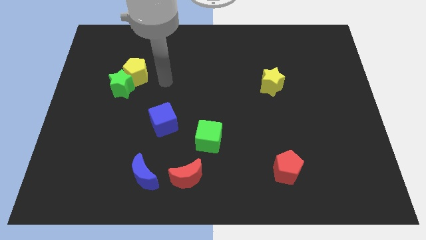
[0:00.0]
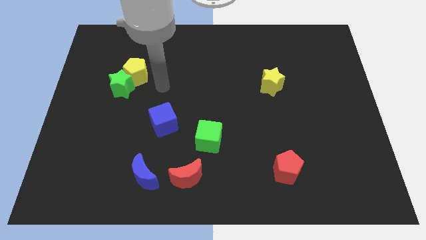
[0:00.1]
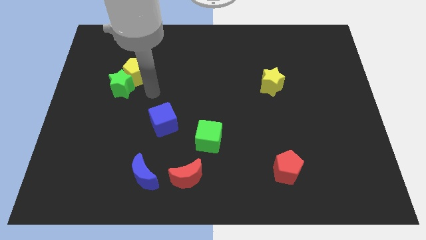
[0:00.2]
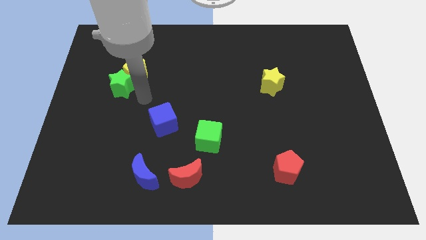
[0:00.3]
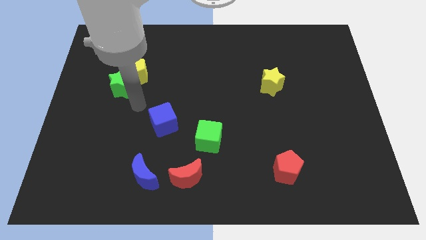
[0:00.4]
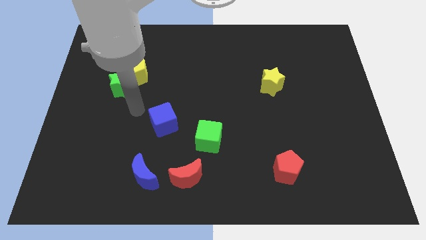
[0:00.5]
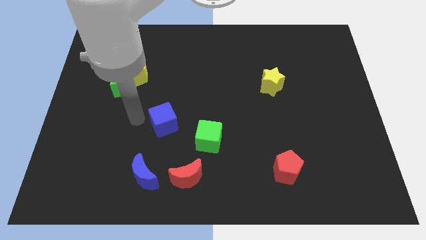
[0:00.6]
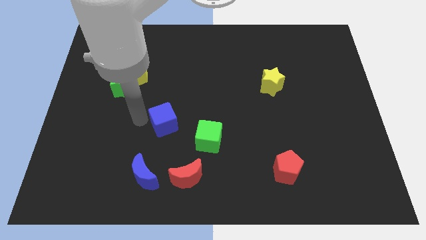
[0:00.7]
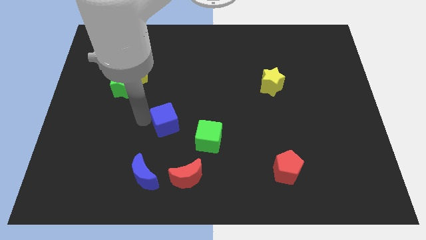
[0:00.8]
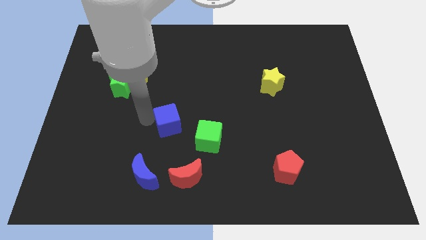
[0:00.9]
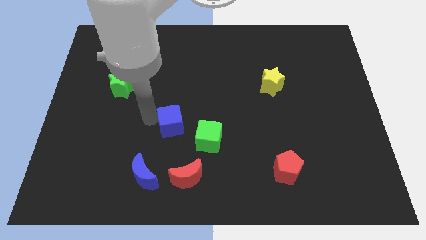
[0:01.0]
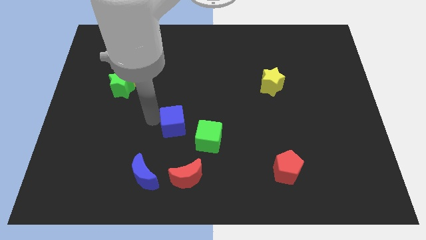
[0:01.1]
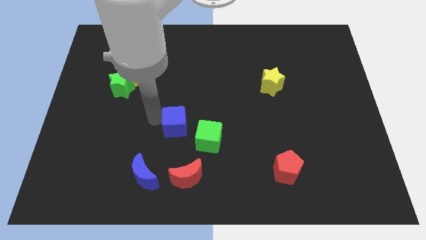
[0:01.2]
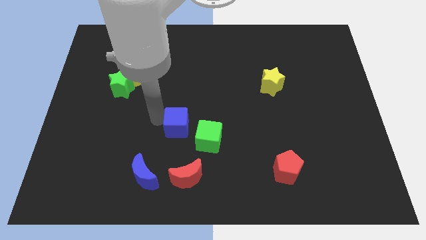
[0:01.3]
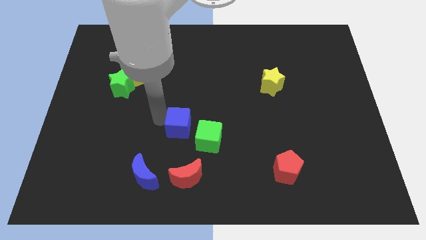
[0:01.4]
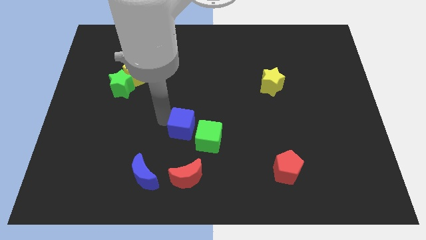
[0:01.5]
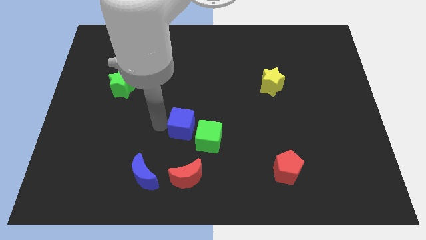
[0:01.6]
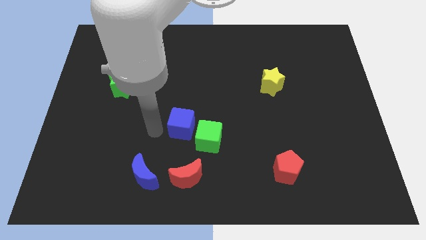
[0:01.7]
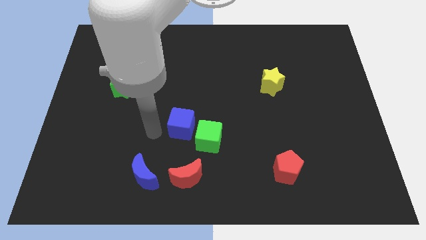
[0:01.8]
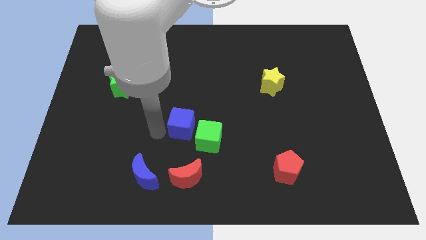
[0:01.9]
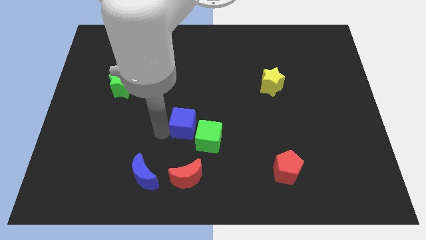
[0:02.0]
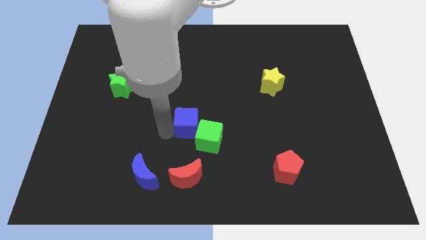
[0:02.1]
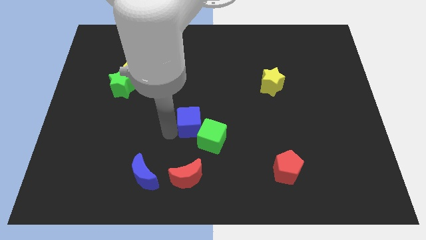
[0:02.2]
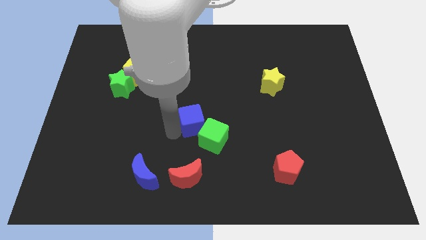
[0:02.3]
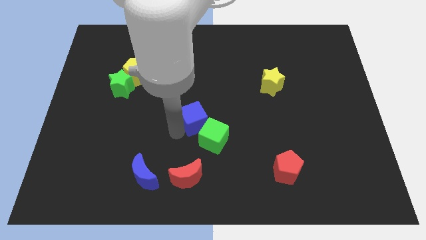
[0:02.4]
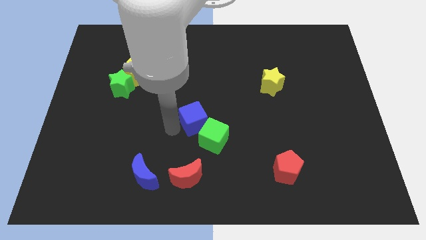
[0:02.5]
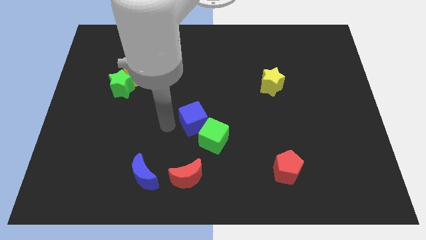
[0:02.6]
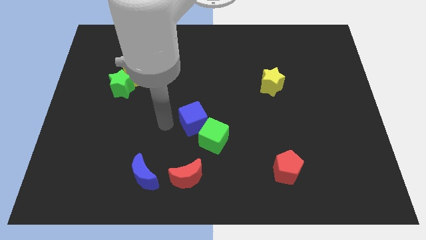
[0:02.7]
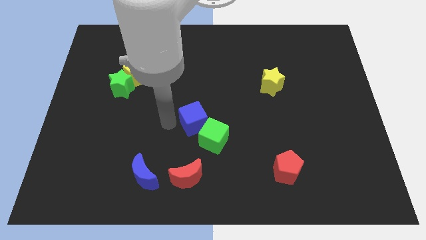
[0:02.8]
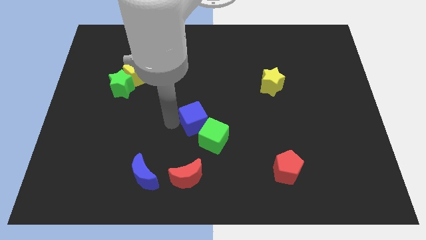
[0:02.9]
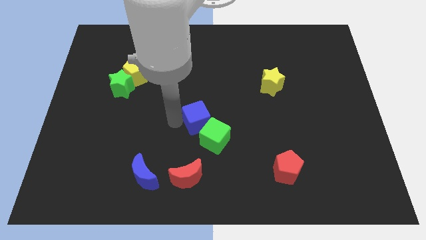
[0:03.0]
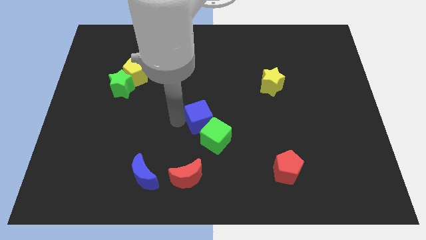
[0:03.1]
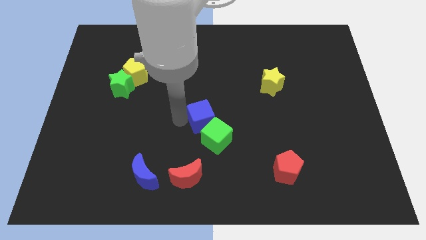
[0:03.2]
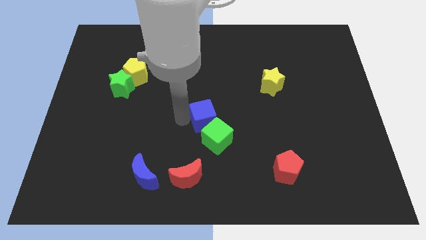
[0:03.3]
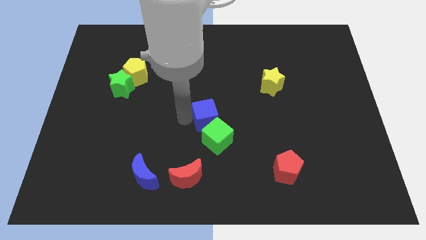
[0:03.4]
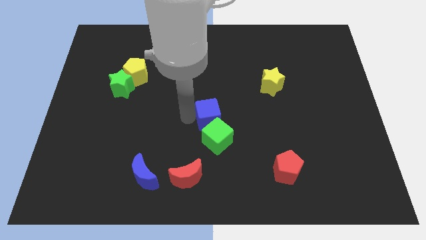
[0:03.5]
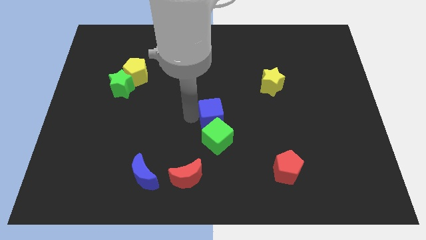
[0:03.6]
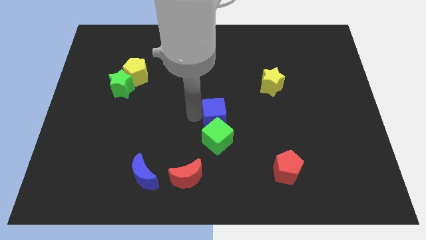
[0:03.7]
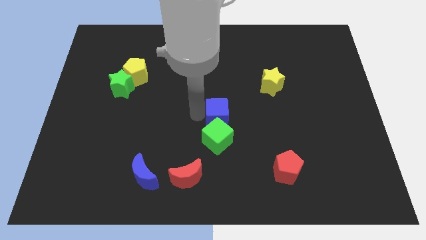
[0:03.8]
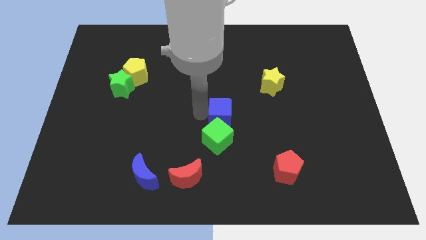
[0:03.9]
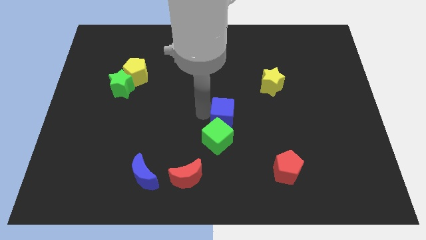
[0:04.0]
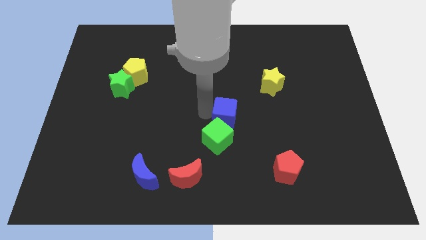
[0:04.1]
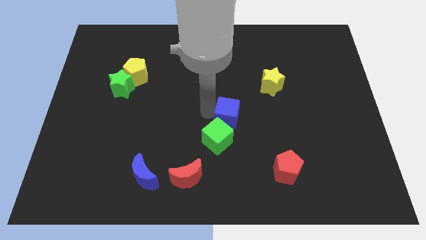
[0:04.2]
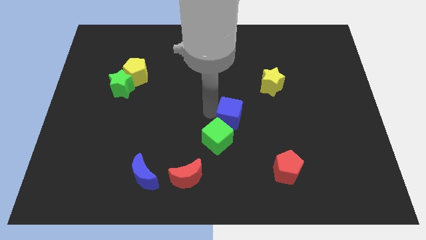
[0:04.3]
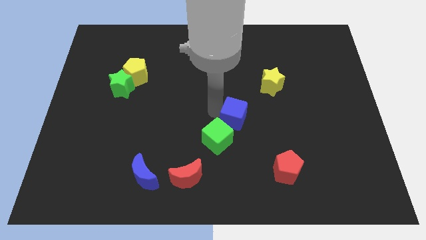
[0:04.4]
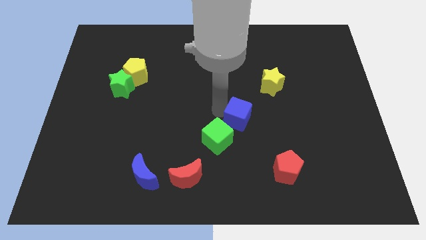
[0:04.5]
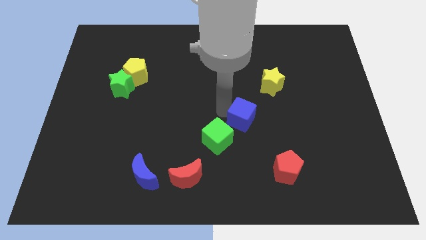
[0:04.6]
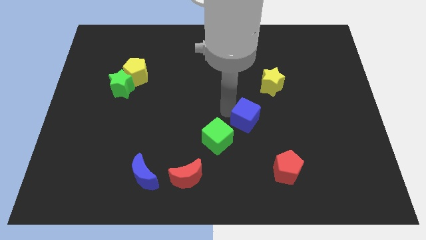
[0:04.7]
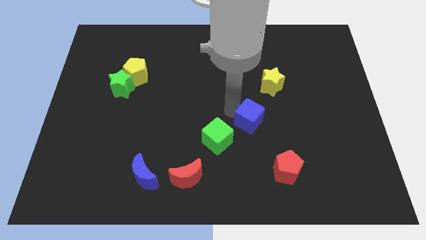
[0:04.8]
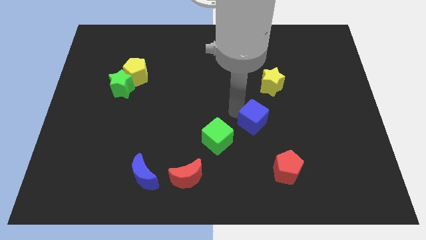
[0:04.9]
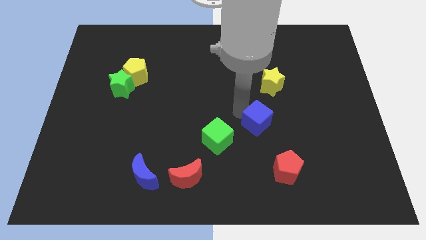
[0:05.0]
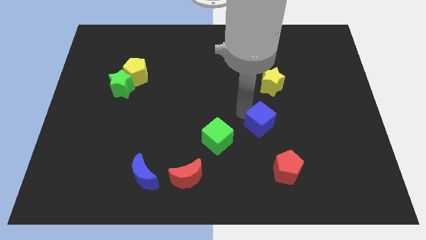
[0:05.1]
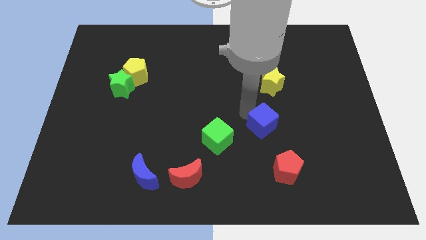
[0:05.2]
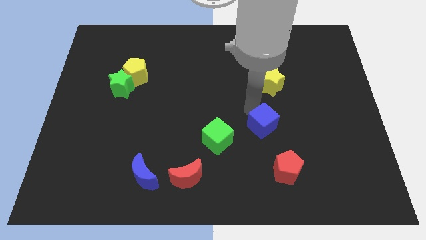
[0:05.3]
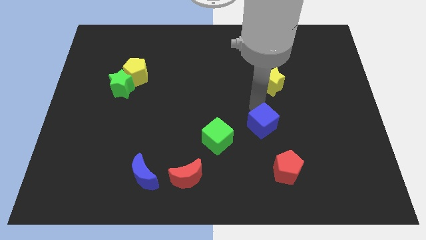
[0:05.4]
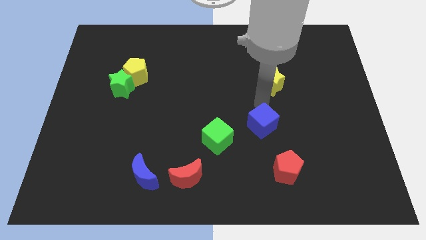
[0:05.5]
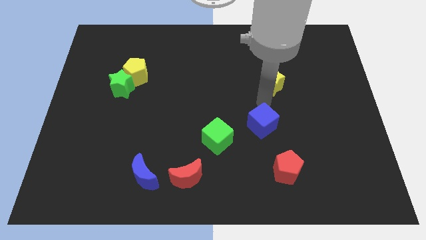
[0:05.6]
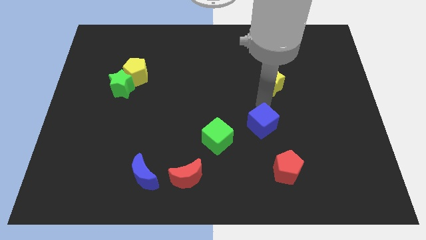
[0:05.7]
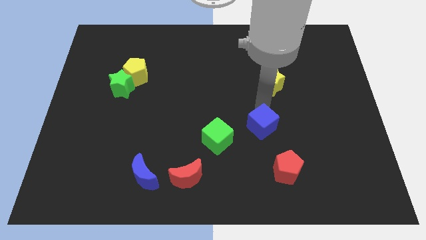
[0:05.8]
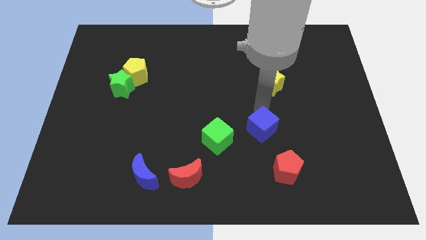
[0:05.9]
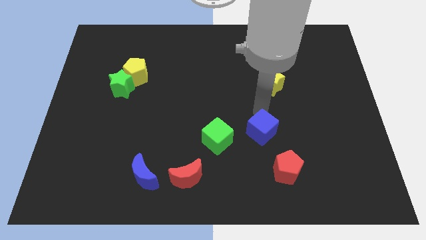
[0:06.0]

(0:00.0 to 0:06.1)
put the blue cube to the top left of the red pentagon

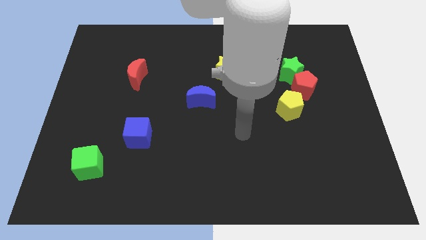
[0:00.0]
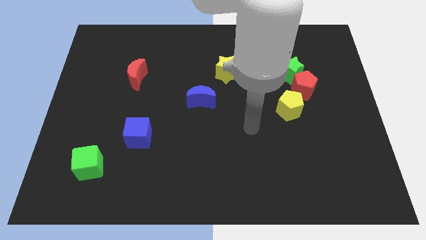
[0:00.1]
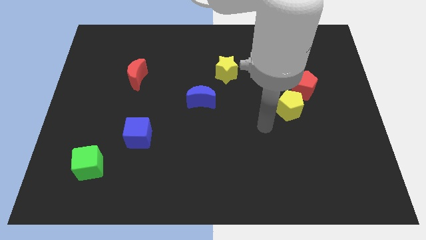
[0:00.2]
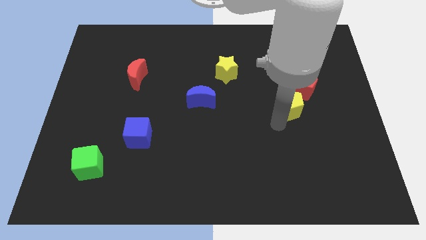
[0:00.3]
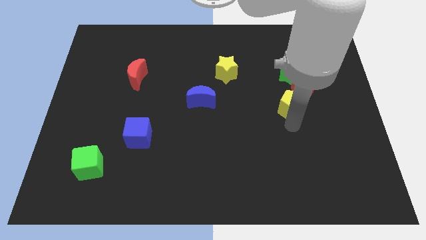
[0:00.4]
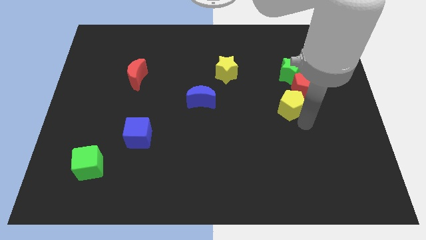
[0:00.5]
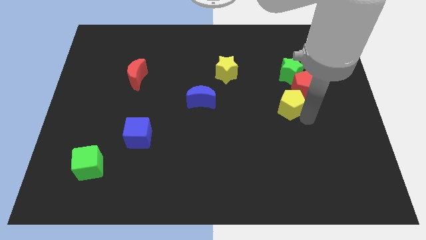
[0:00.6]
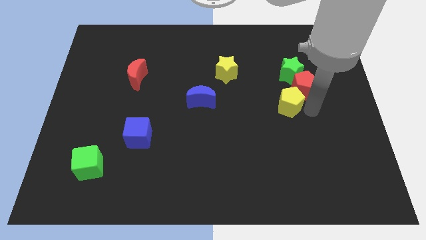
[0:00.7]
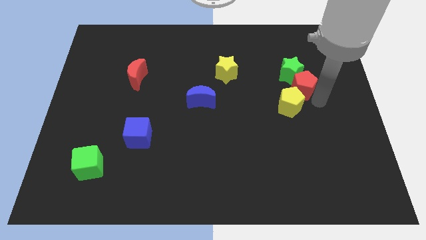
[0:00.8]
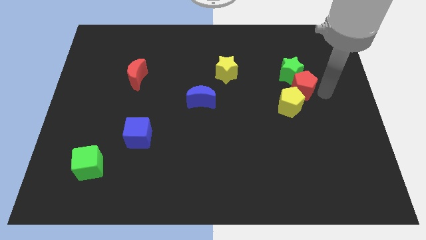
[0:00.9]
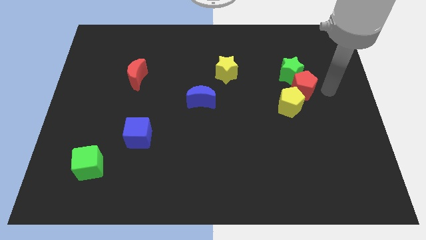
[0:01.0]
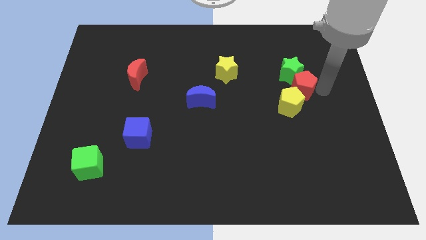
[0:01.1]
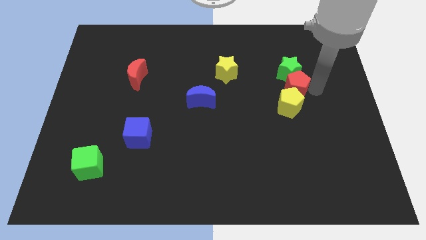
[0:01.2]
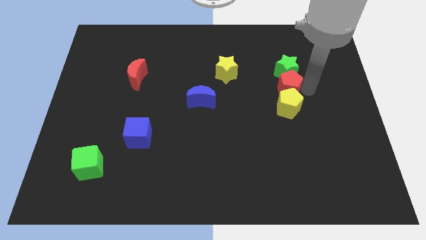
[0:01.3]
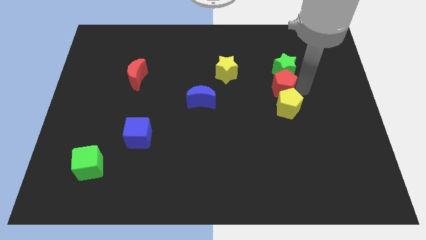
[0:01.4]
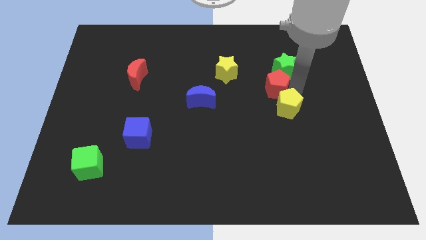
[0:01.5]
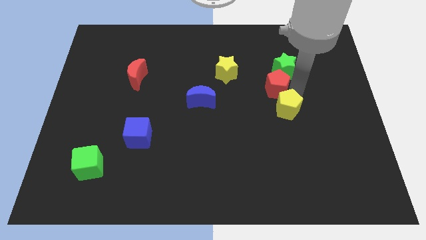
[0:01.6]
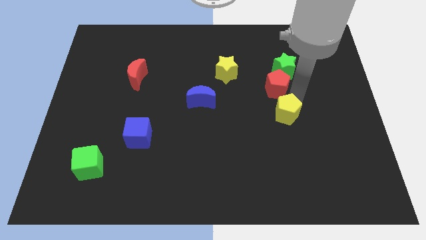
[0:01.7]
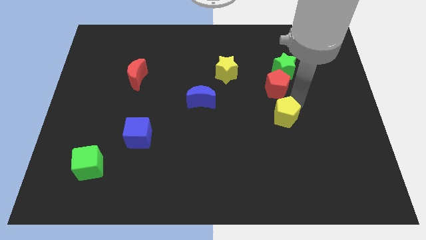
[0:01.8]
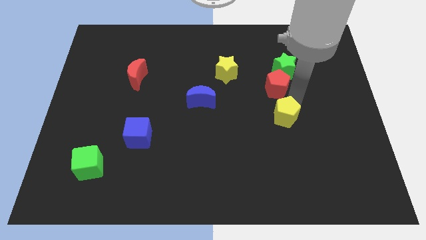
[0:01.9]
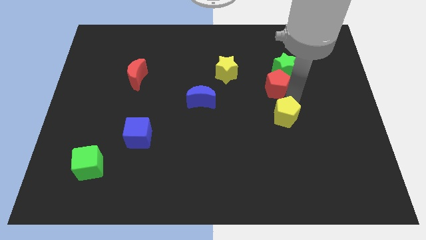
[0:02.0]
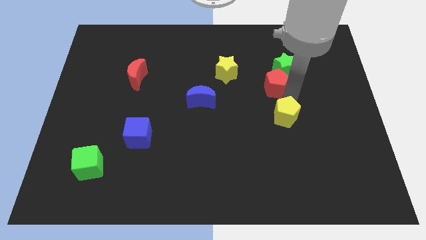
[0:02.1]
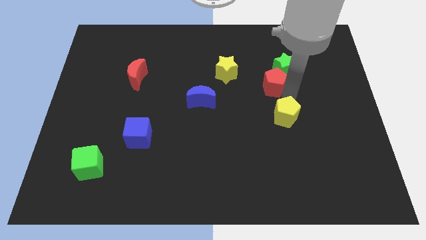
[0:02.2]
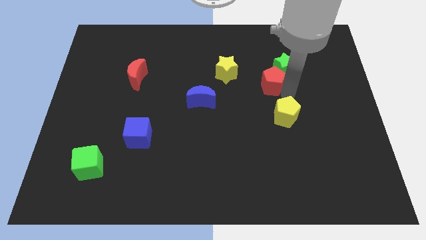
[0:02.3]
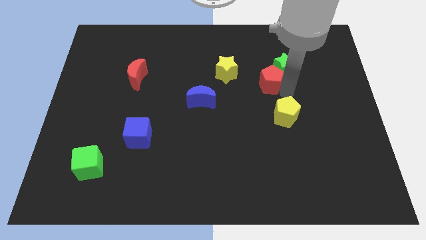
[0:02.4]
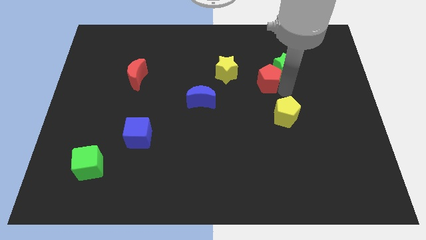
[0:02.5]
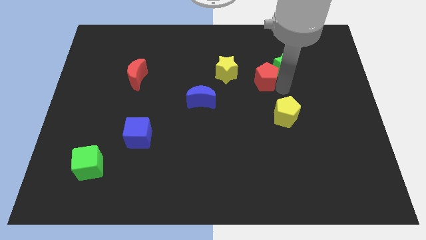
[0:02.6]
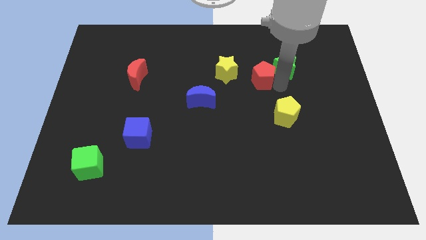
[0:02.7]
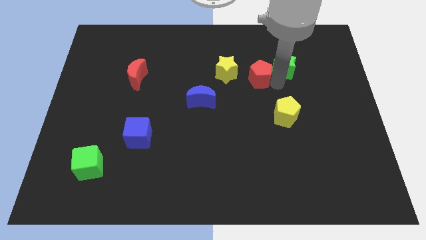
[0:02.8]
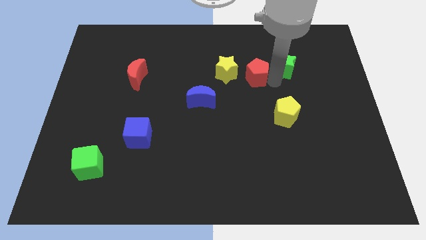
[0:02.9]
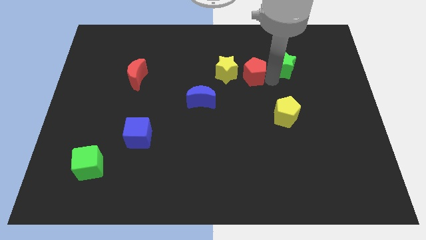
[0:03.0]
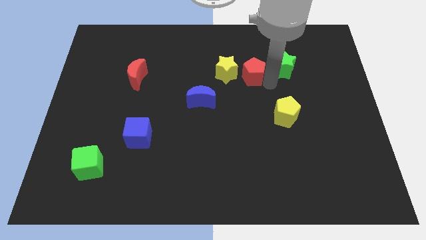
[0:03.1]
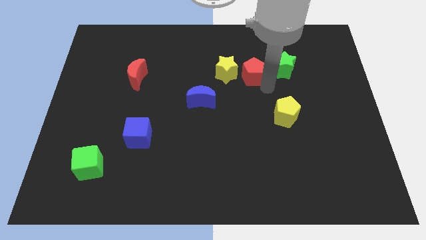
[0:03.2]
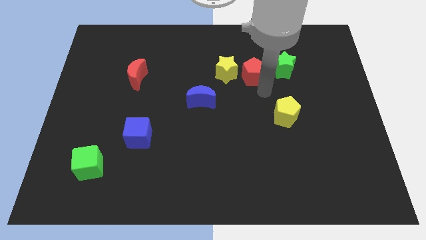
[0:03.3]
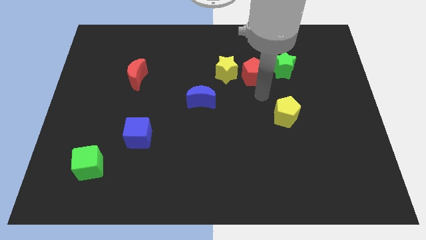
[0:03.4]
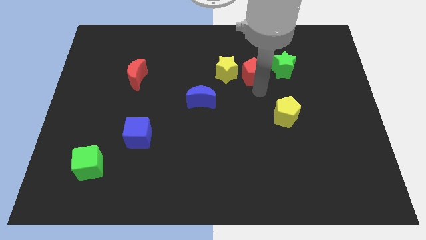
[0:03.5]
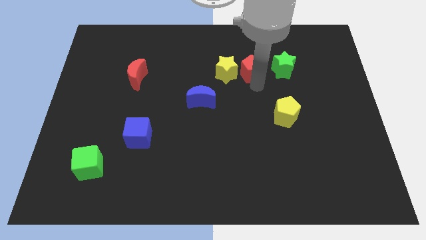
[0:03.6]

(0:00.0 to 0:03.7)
slide the red pentagon to the top right side of the yellow star
